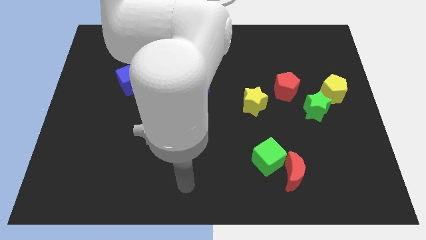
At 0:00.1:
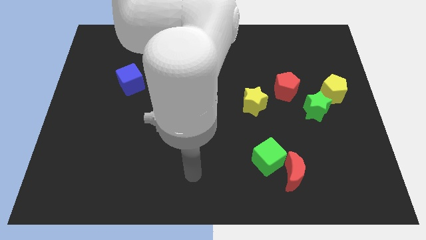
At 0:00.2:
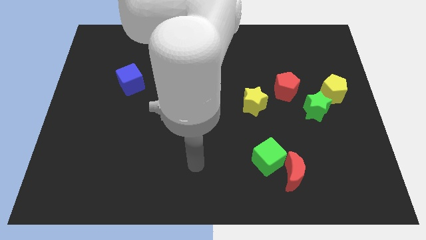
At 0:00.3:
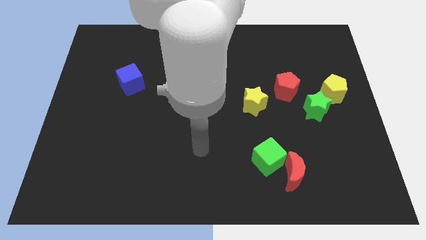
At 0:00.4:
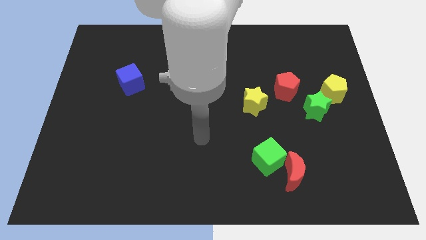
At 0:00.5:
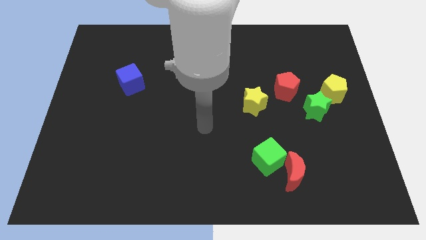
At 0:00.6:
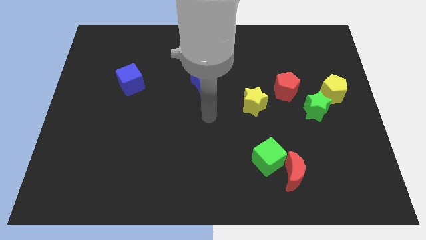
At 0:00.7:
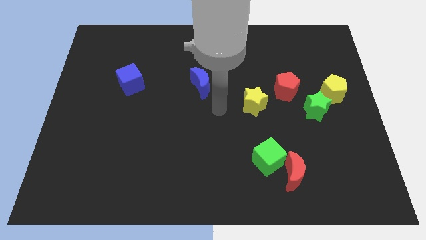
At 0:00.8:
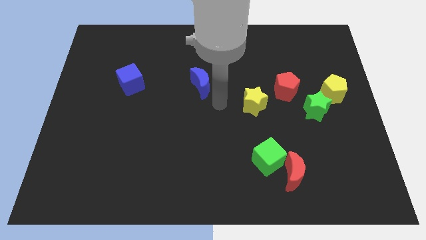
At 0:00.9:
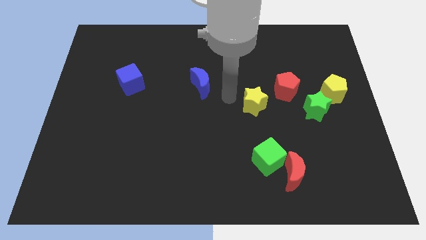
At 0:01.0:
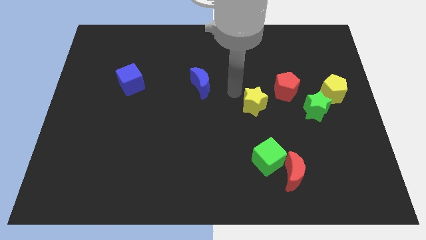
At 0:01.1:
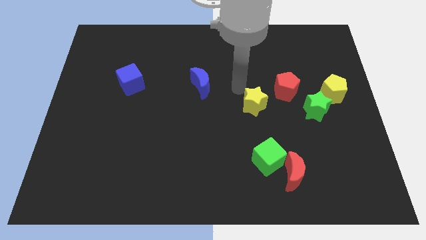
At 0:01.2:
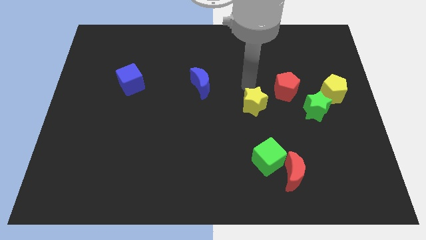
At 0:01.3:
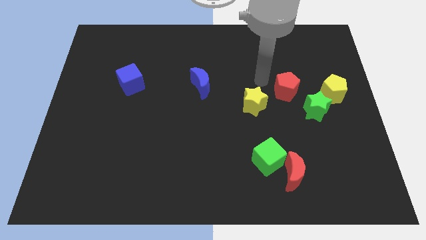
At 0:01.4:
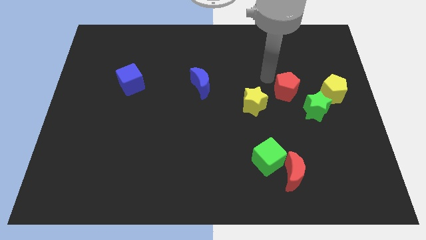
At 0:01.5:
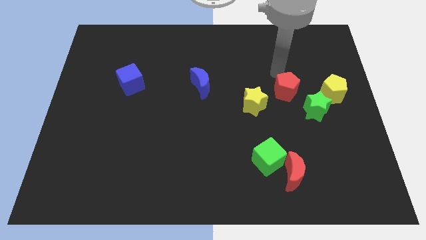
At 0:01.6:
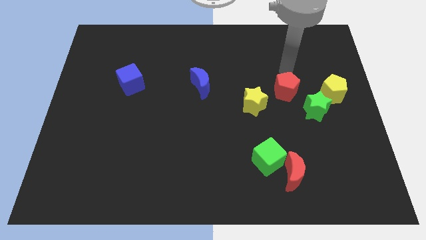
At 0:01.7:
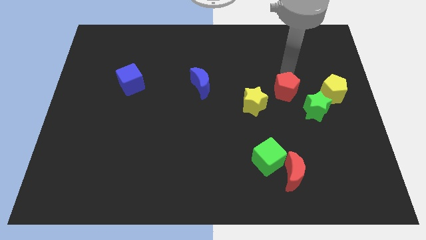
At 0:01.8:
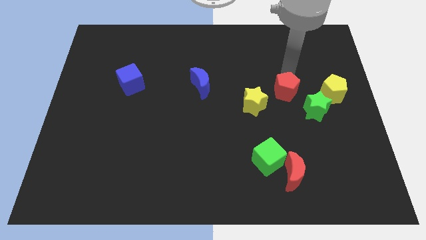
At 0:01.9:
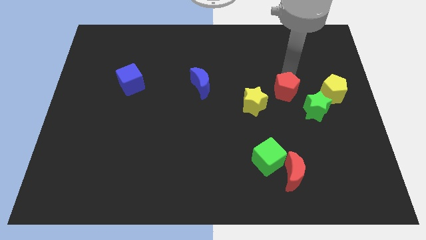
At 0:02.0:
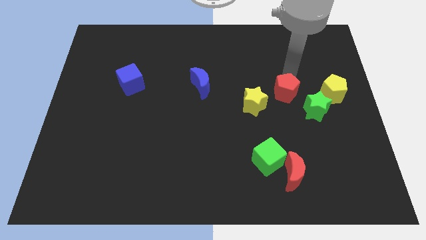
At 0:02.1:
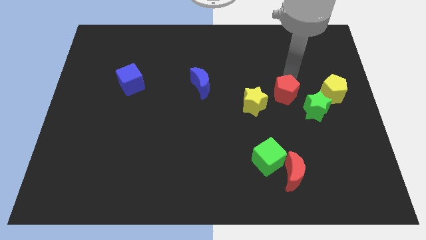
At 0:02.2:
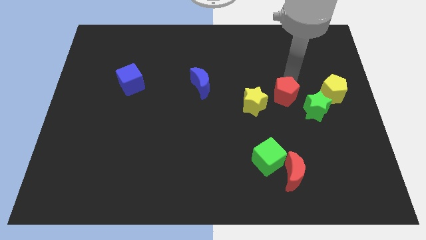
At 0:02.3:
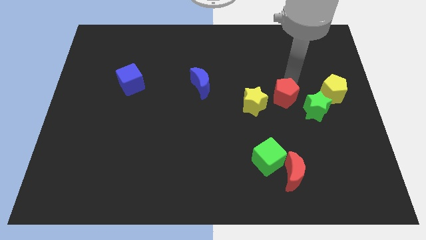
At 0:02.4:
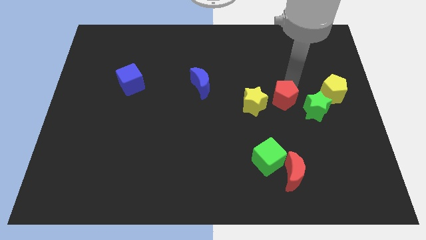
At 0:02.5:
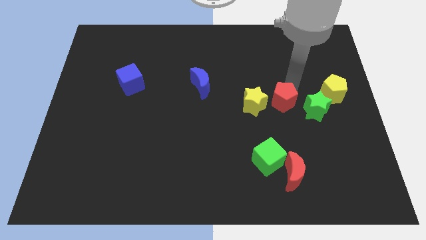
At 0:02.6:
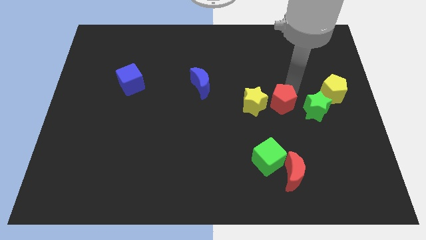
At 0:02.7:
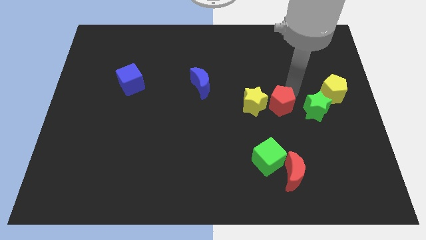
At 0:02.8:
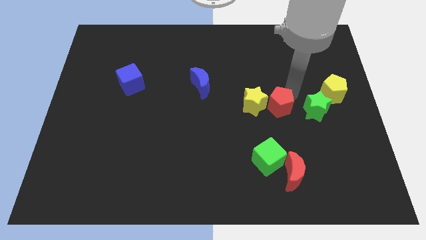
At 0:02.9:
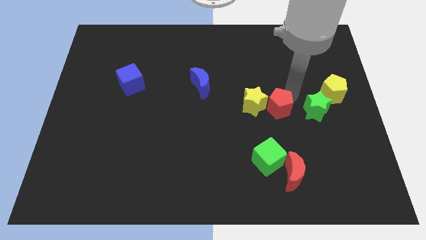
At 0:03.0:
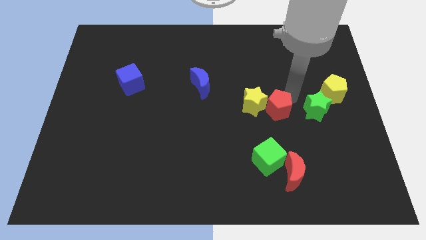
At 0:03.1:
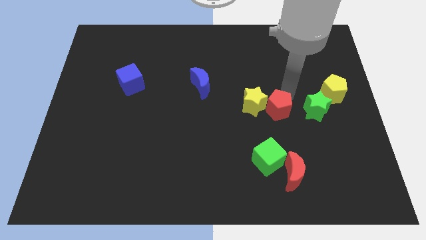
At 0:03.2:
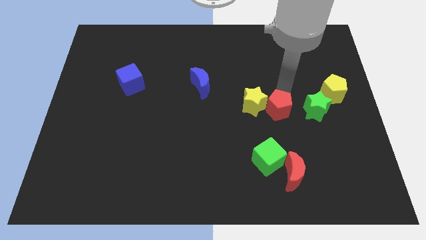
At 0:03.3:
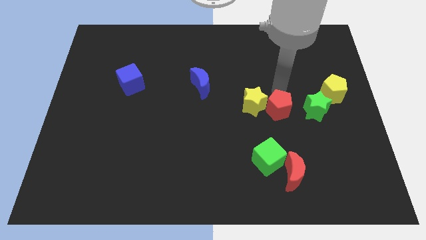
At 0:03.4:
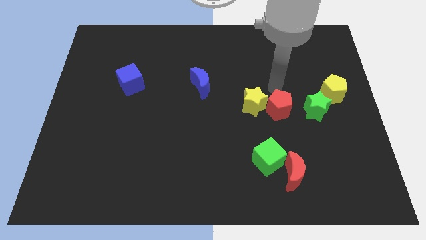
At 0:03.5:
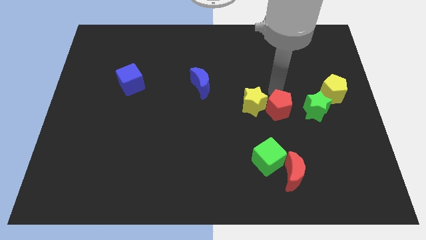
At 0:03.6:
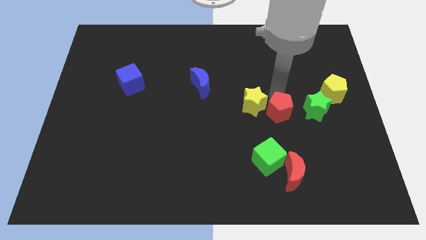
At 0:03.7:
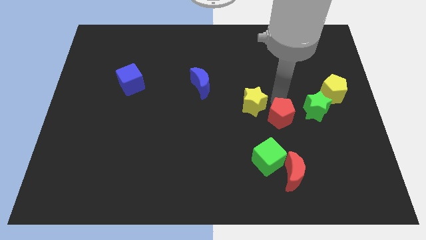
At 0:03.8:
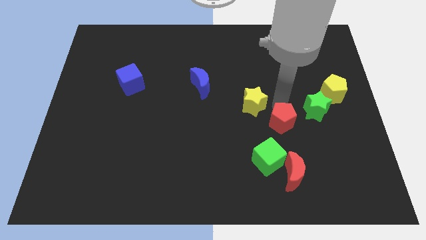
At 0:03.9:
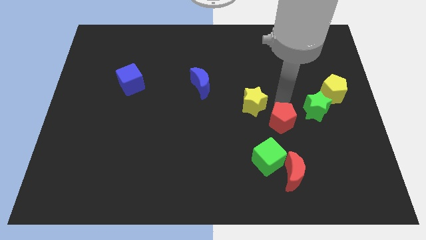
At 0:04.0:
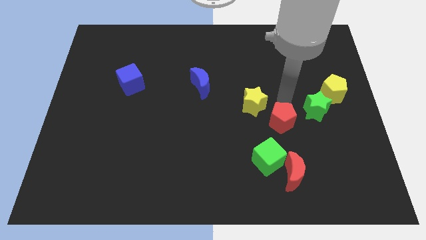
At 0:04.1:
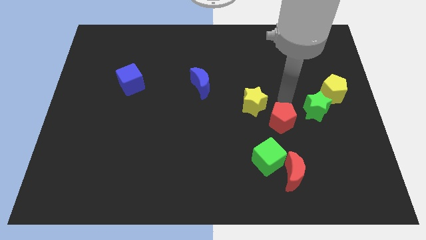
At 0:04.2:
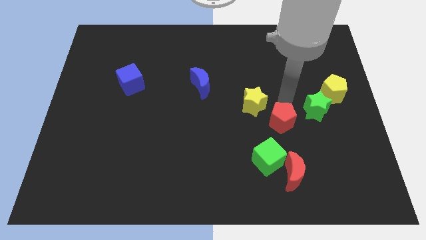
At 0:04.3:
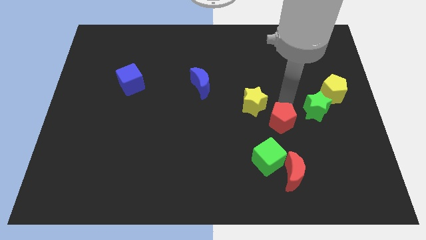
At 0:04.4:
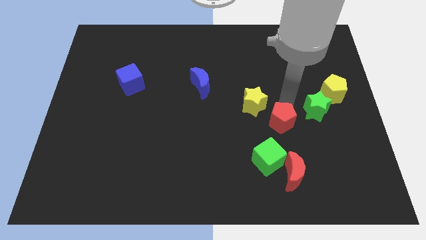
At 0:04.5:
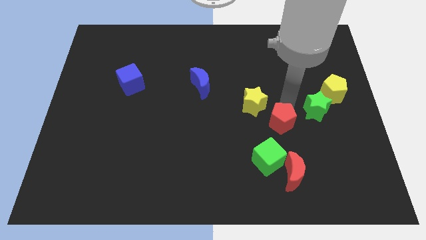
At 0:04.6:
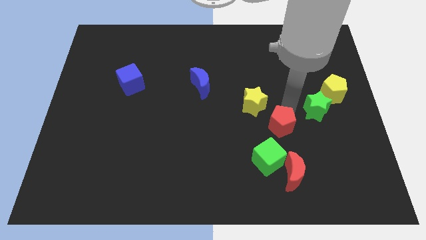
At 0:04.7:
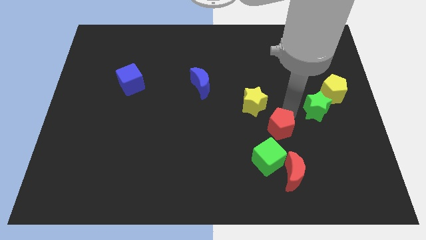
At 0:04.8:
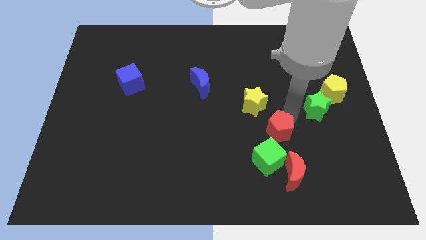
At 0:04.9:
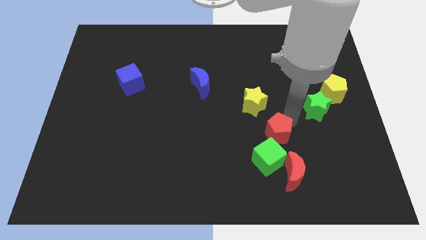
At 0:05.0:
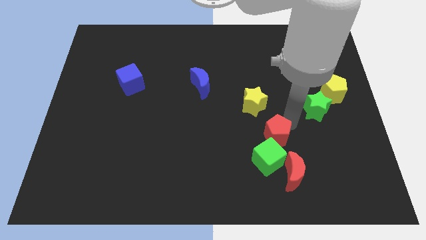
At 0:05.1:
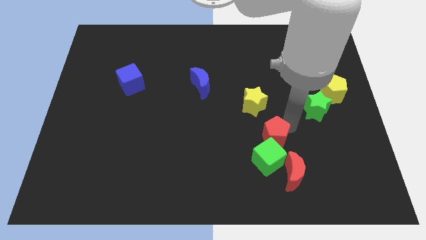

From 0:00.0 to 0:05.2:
move the red pentagon towards the green cube

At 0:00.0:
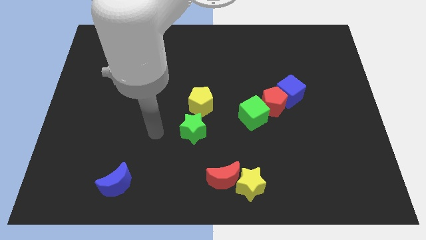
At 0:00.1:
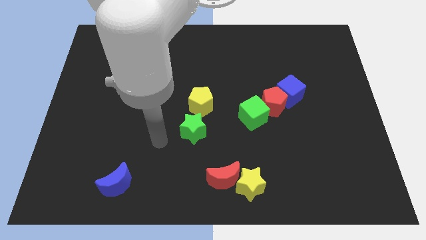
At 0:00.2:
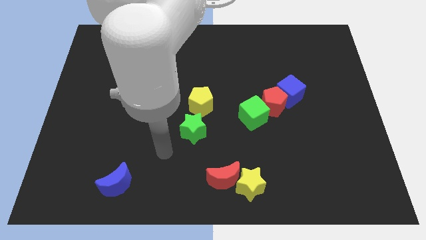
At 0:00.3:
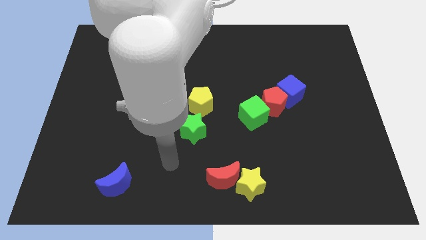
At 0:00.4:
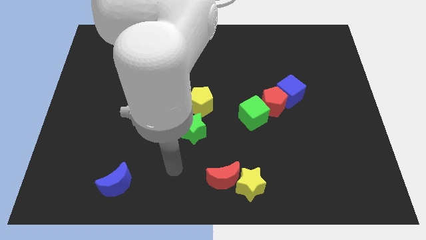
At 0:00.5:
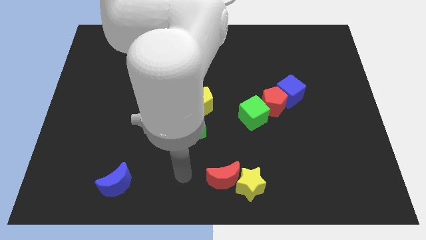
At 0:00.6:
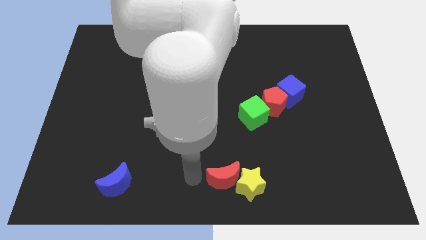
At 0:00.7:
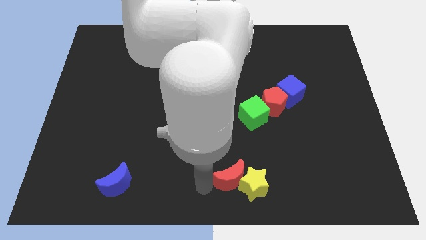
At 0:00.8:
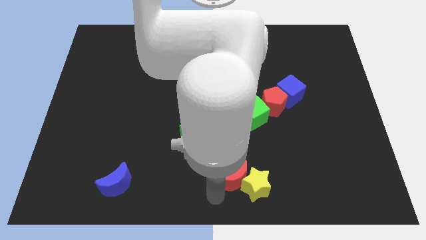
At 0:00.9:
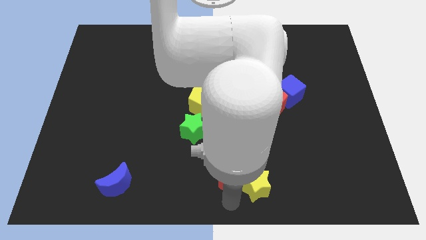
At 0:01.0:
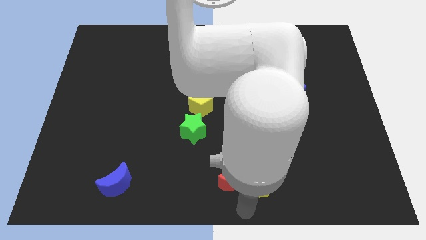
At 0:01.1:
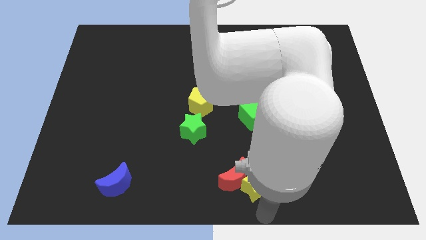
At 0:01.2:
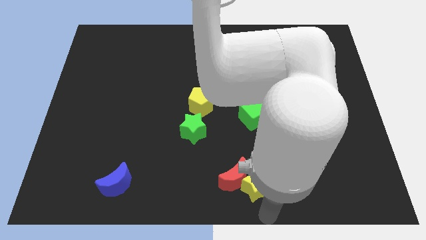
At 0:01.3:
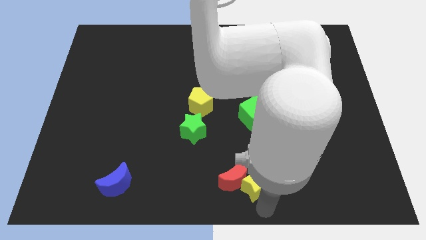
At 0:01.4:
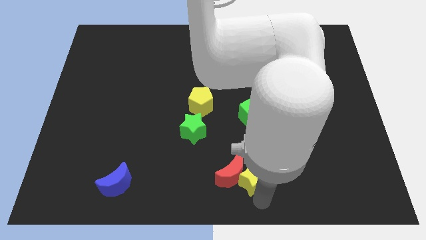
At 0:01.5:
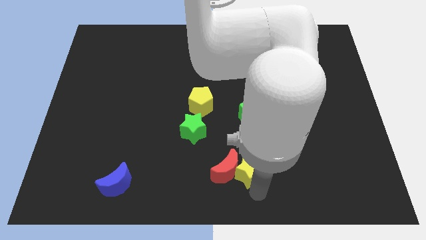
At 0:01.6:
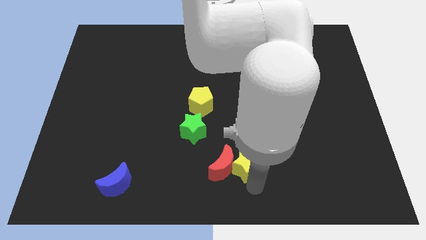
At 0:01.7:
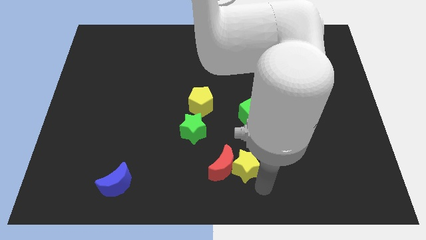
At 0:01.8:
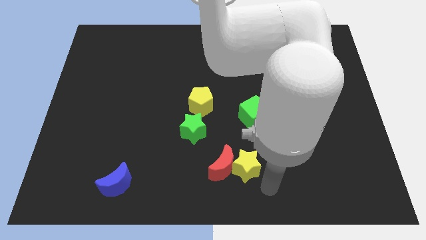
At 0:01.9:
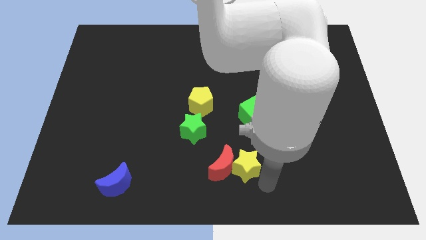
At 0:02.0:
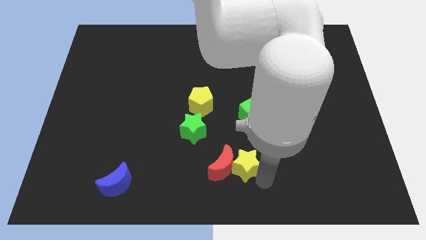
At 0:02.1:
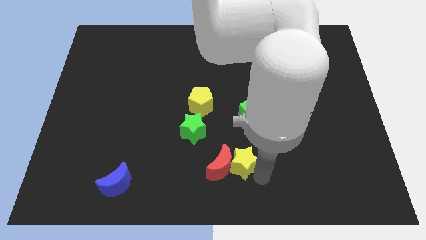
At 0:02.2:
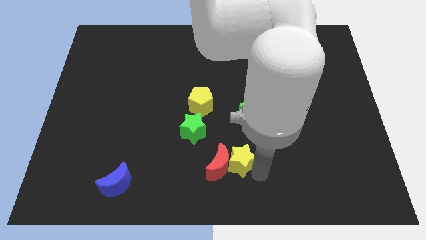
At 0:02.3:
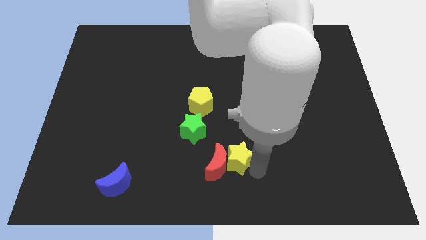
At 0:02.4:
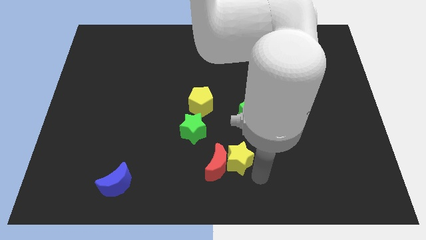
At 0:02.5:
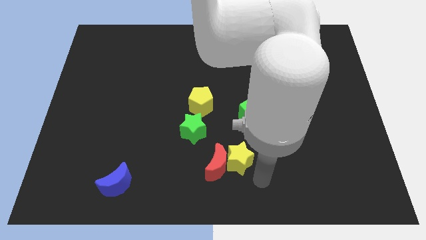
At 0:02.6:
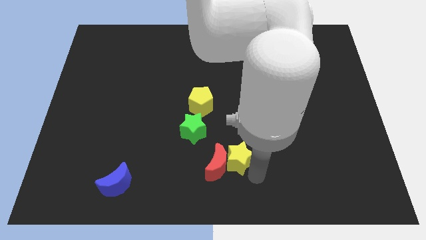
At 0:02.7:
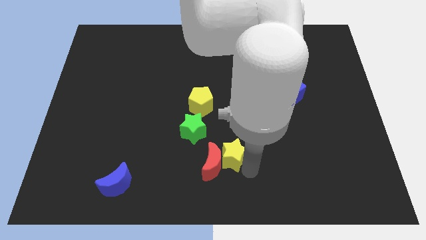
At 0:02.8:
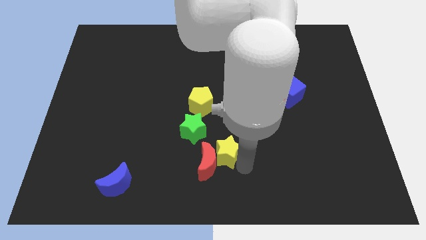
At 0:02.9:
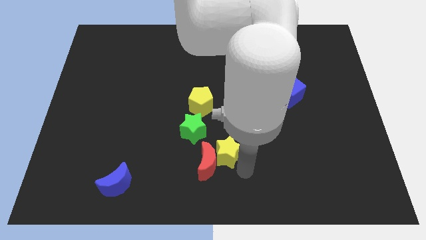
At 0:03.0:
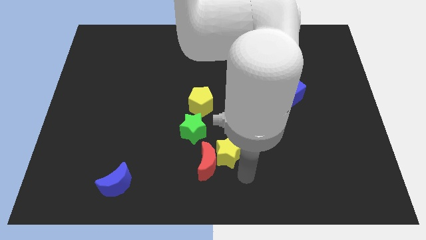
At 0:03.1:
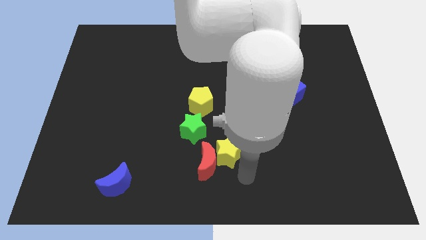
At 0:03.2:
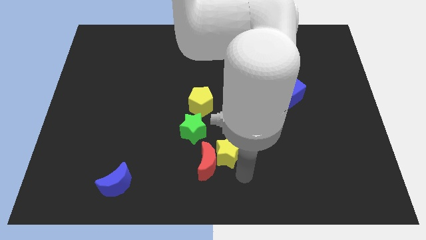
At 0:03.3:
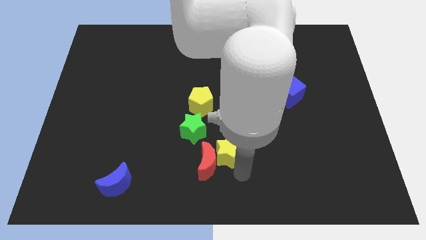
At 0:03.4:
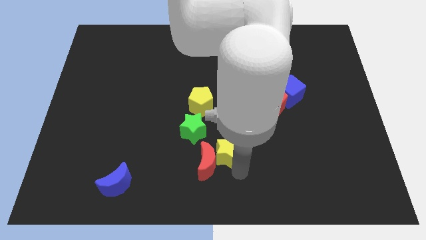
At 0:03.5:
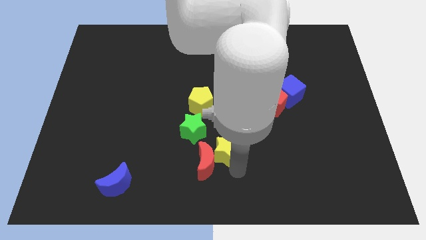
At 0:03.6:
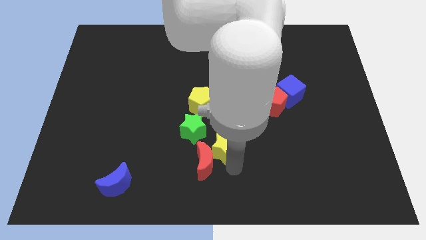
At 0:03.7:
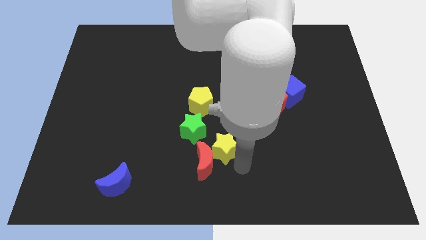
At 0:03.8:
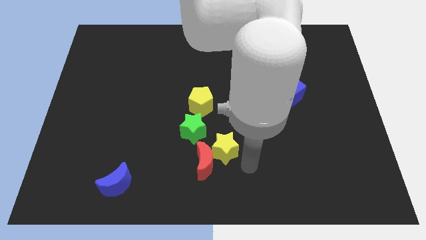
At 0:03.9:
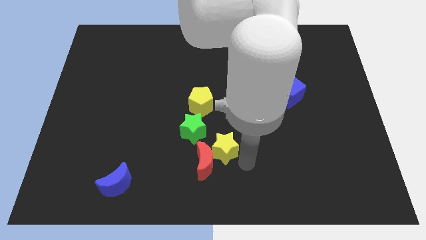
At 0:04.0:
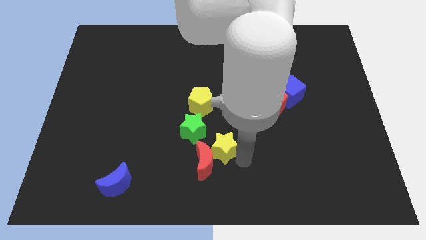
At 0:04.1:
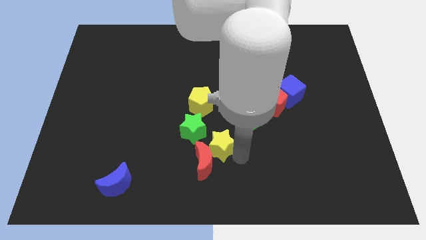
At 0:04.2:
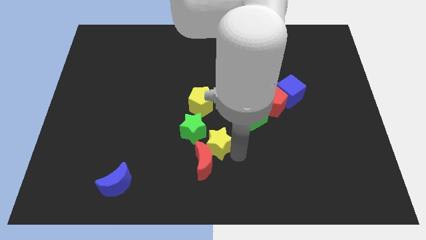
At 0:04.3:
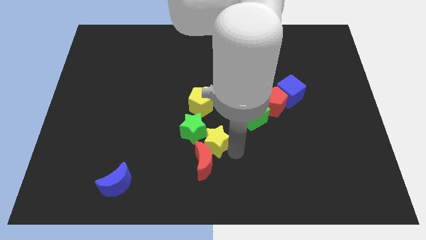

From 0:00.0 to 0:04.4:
move the yellow star to the green star
